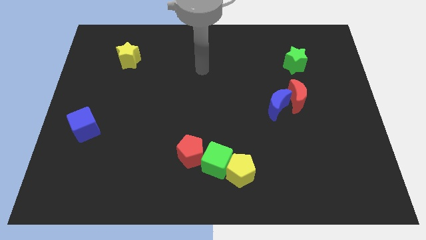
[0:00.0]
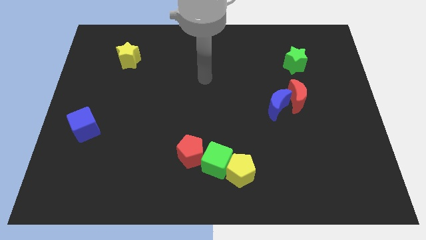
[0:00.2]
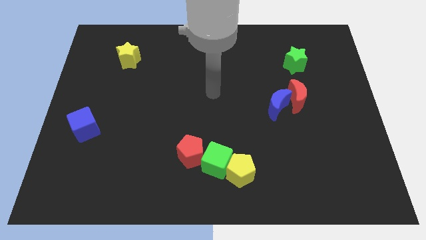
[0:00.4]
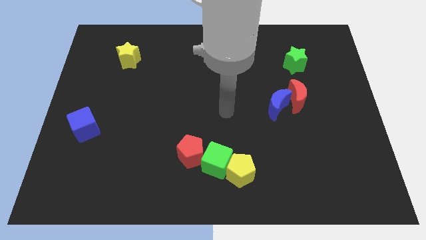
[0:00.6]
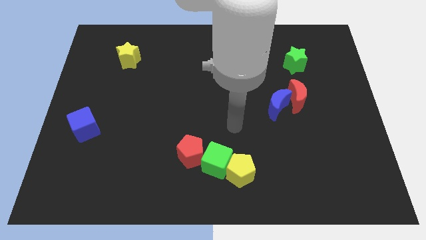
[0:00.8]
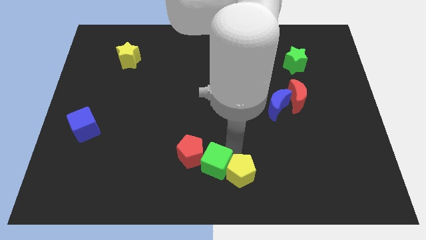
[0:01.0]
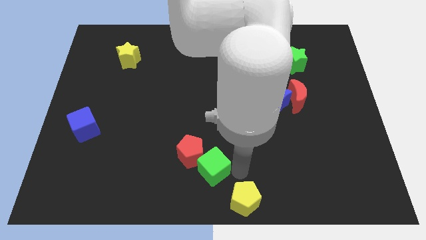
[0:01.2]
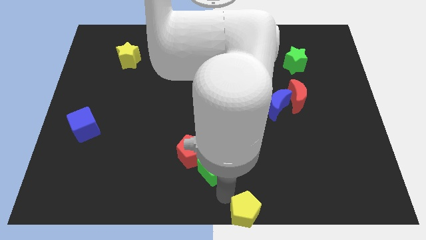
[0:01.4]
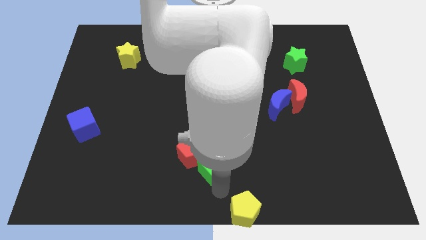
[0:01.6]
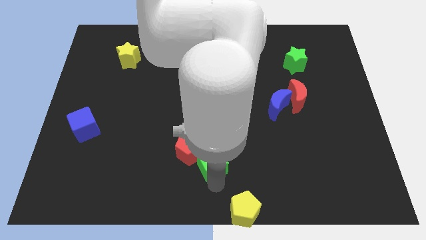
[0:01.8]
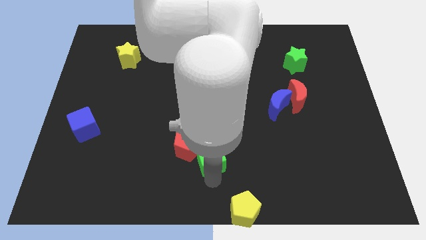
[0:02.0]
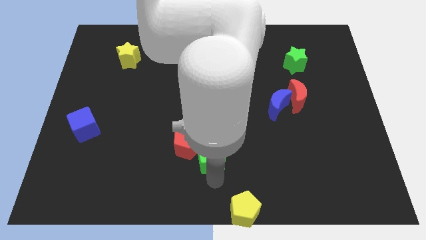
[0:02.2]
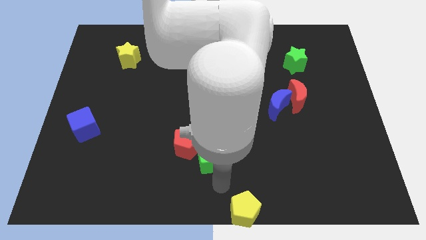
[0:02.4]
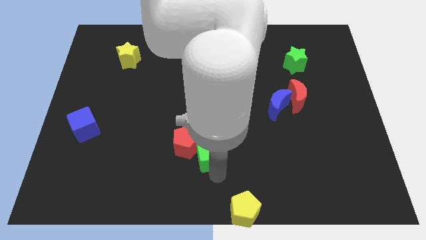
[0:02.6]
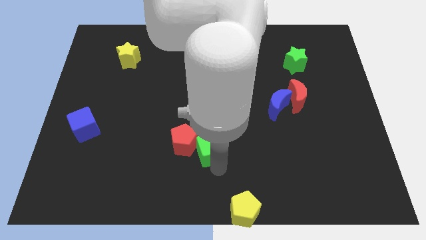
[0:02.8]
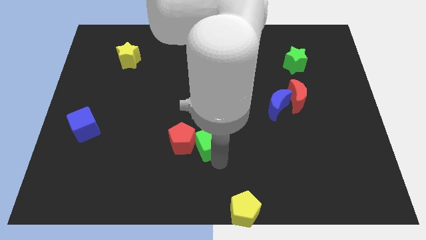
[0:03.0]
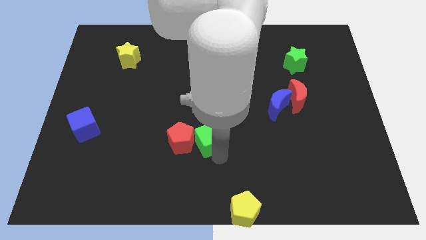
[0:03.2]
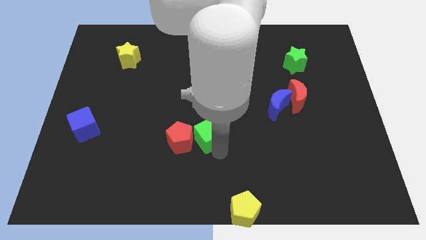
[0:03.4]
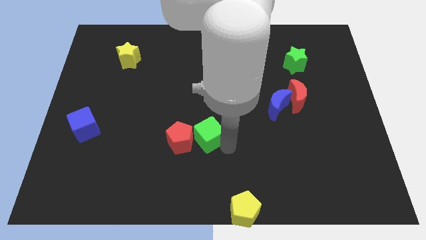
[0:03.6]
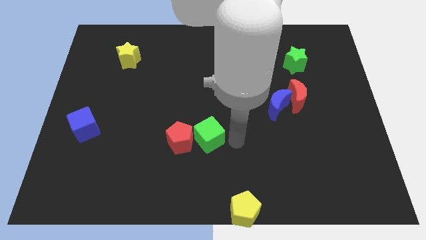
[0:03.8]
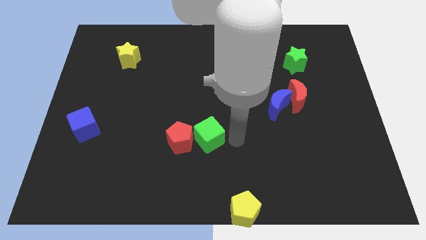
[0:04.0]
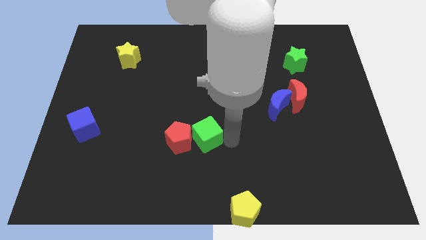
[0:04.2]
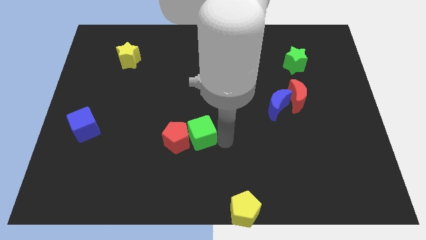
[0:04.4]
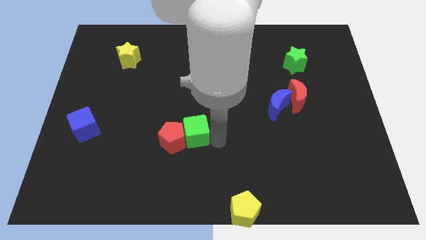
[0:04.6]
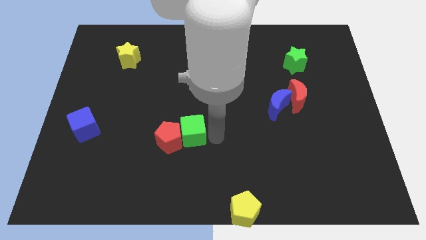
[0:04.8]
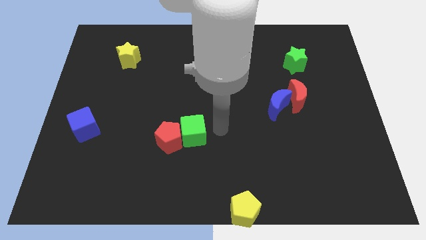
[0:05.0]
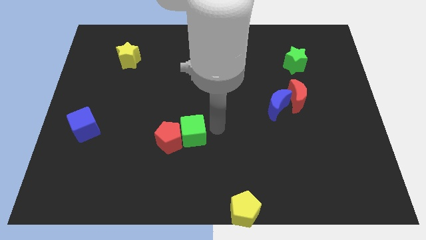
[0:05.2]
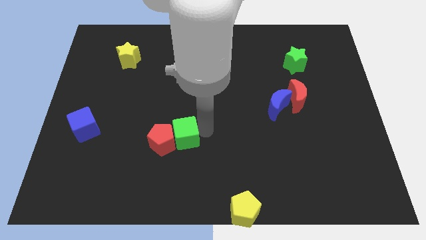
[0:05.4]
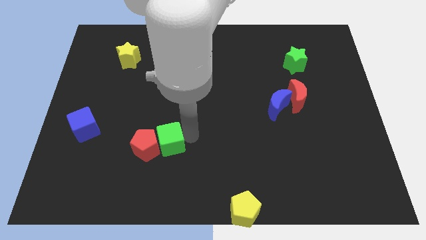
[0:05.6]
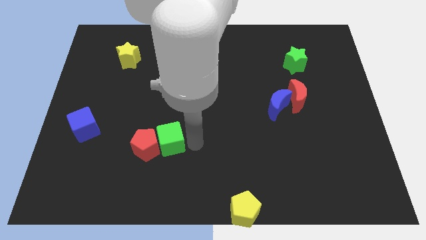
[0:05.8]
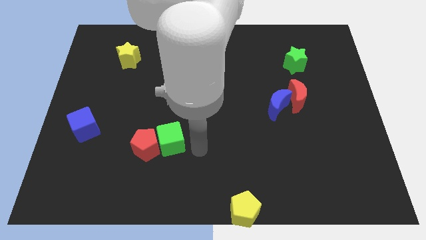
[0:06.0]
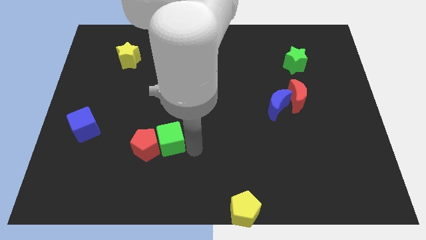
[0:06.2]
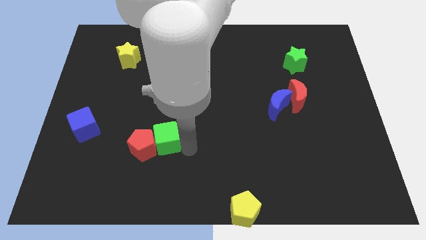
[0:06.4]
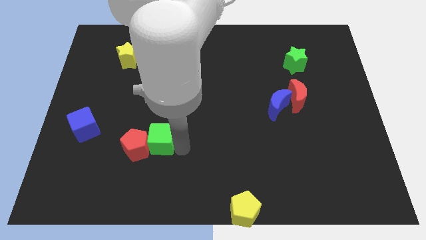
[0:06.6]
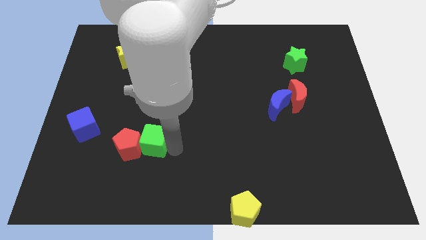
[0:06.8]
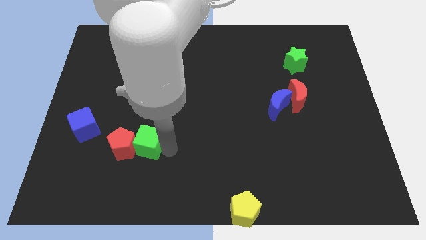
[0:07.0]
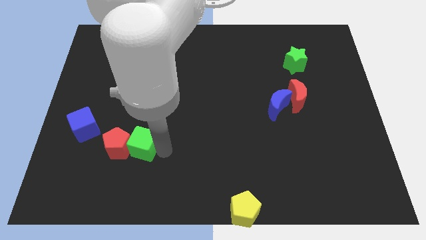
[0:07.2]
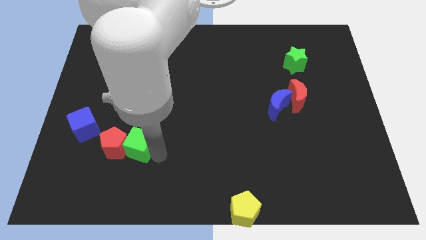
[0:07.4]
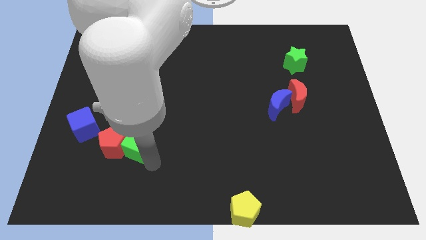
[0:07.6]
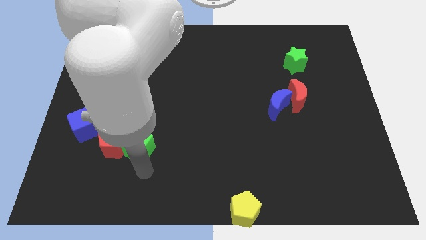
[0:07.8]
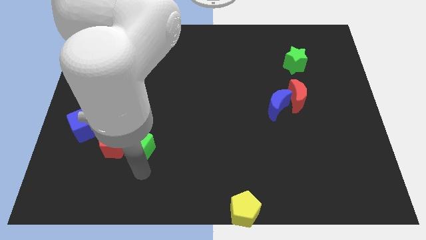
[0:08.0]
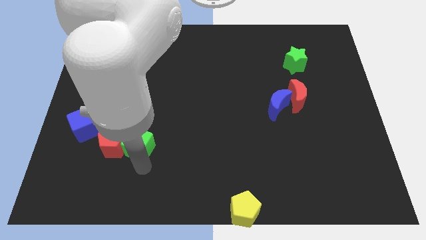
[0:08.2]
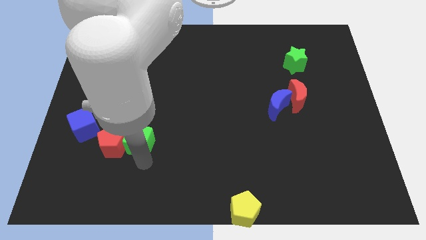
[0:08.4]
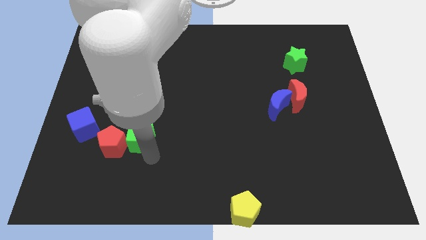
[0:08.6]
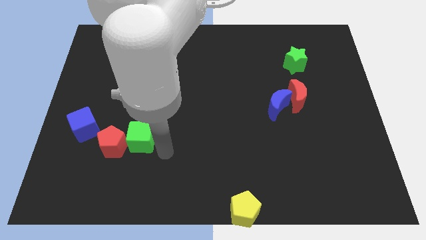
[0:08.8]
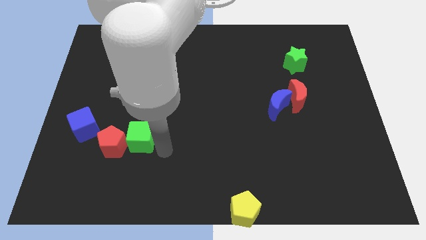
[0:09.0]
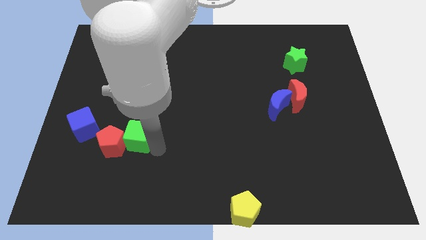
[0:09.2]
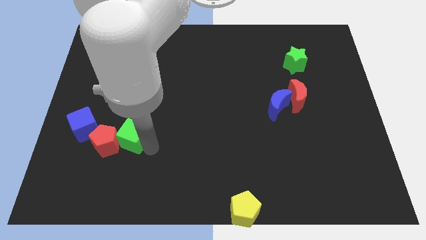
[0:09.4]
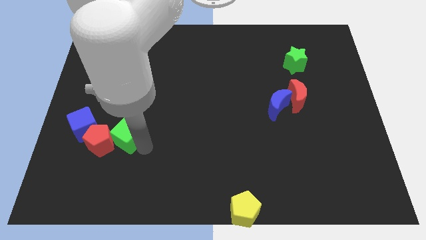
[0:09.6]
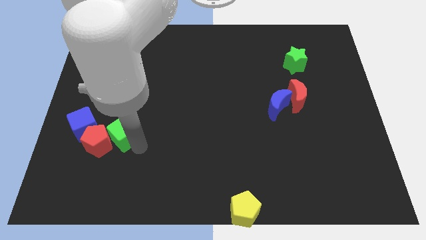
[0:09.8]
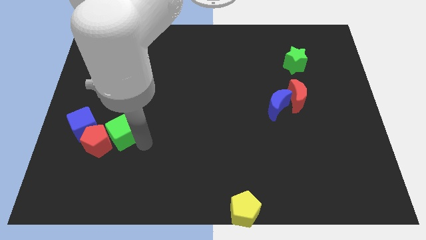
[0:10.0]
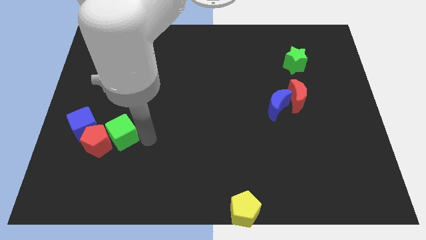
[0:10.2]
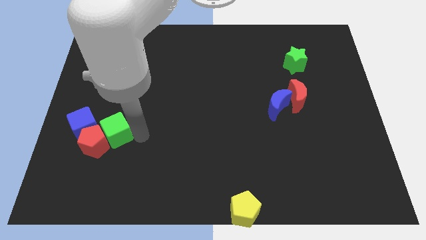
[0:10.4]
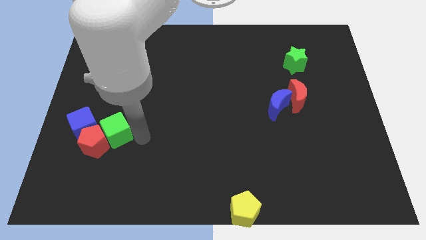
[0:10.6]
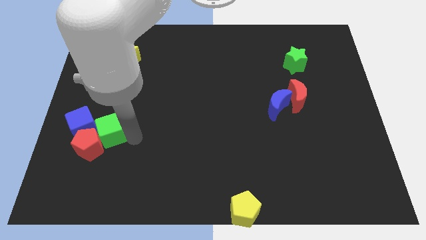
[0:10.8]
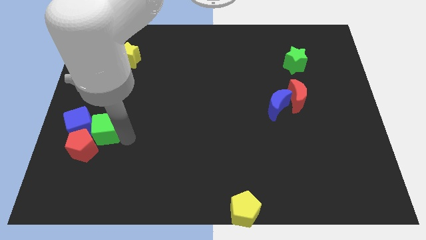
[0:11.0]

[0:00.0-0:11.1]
slide the green cube to the blue cube

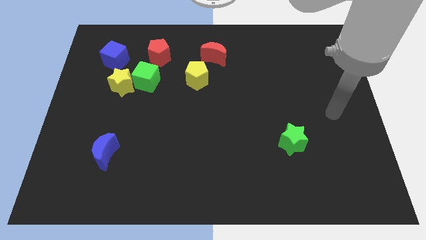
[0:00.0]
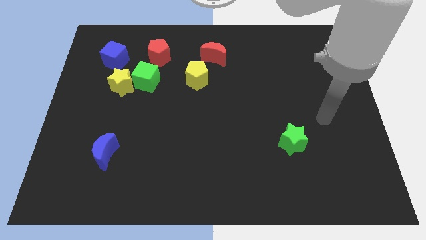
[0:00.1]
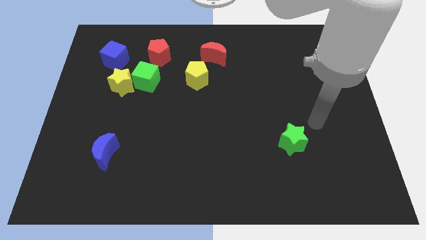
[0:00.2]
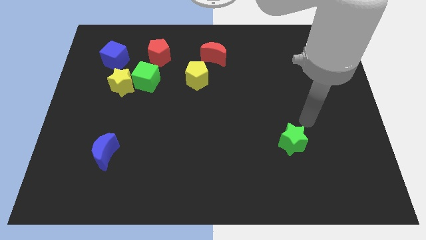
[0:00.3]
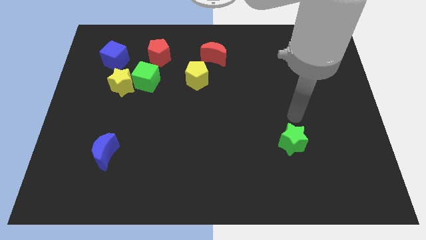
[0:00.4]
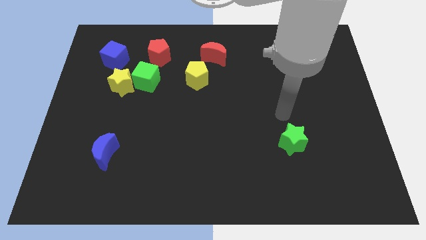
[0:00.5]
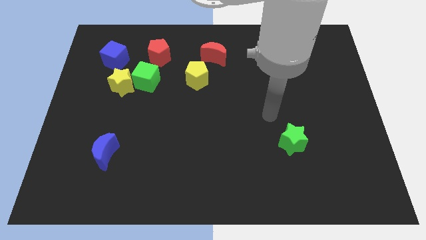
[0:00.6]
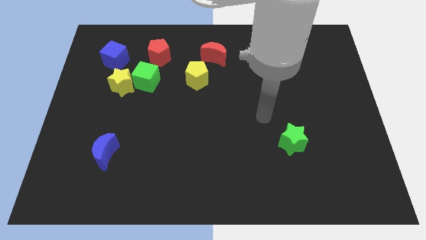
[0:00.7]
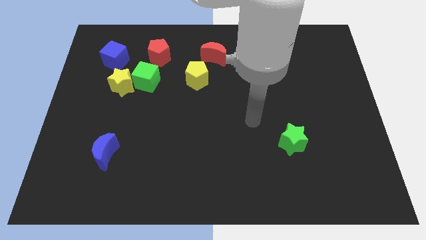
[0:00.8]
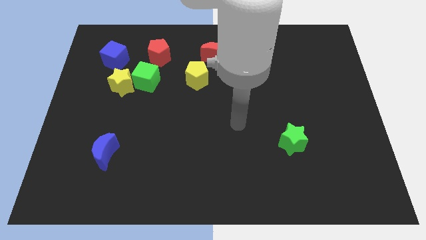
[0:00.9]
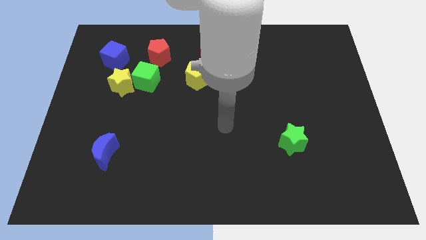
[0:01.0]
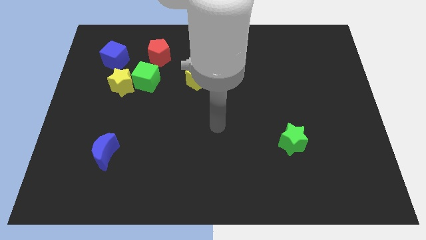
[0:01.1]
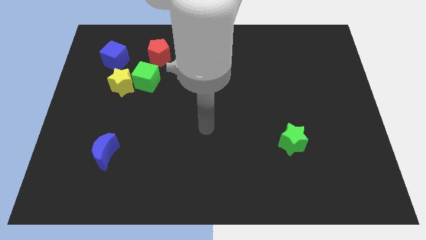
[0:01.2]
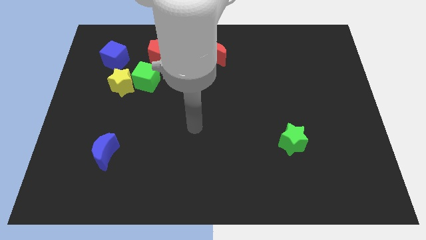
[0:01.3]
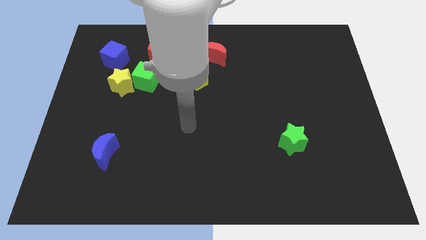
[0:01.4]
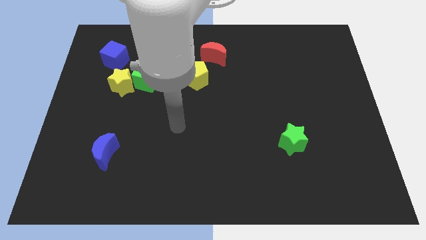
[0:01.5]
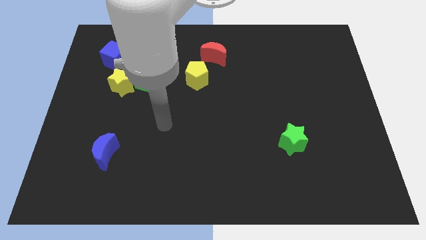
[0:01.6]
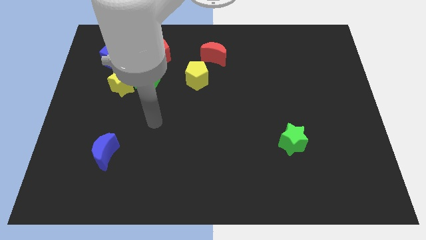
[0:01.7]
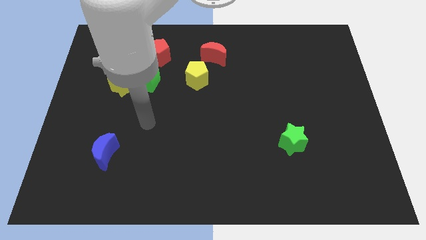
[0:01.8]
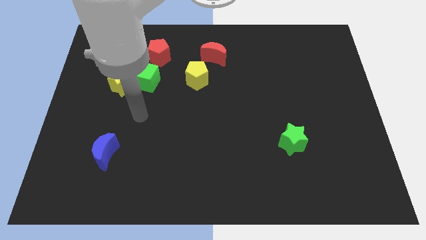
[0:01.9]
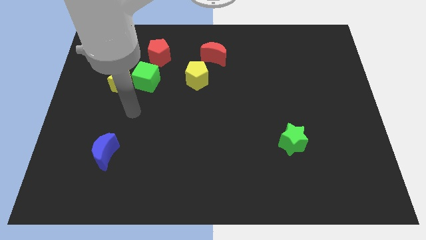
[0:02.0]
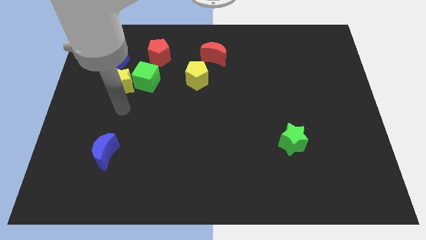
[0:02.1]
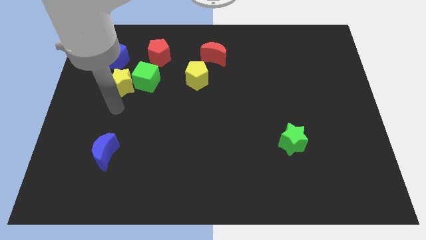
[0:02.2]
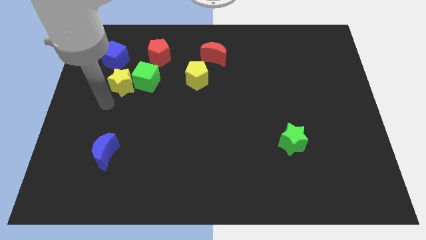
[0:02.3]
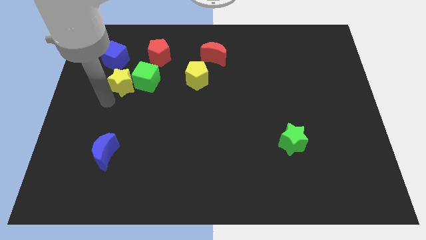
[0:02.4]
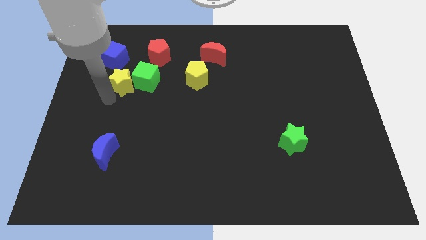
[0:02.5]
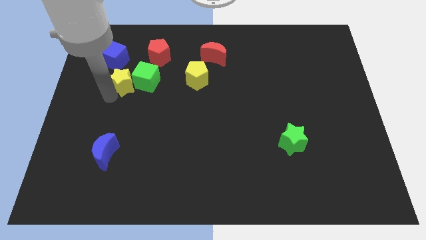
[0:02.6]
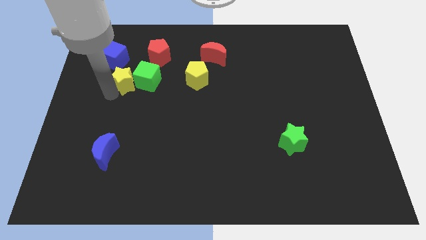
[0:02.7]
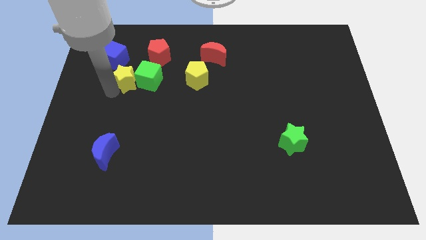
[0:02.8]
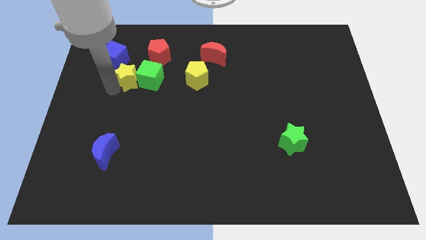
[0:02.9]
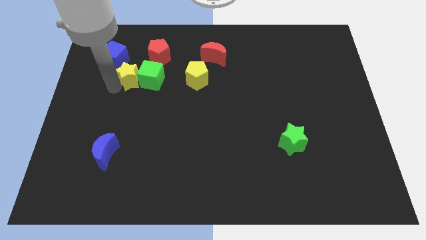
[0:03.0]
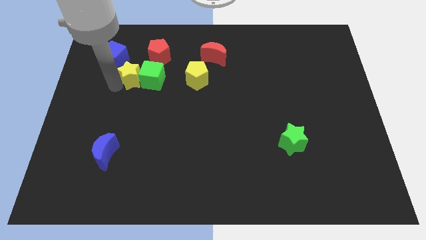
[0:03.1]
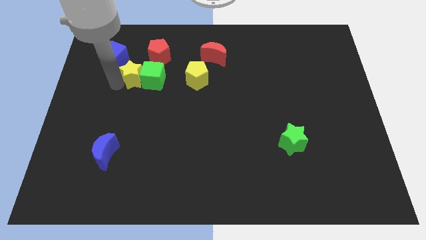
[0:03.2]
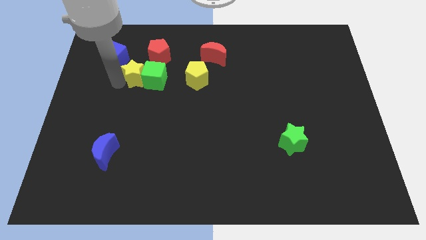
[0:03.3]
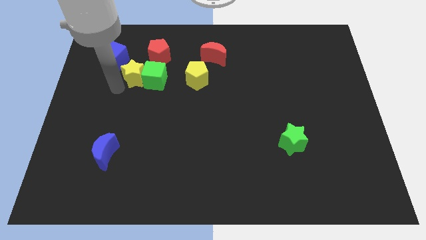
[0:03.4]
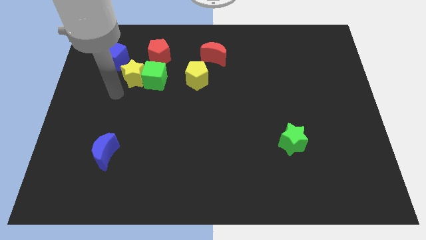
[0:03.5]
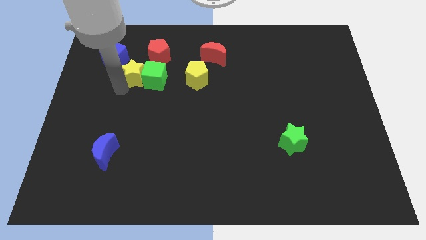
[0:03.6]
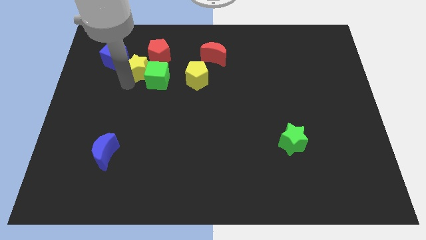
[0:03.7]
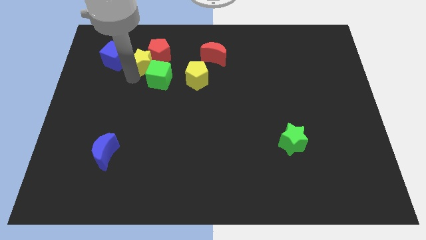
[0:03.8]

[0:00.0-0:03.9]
push the yellow star close to the red pentagon
